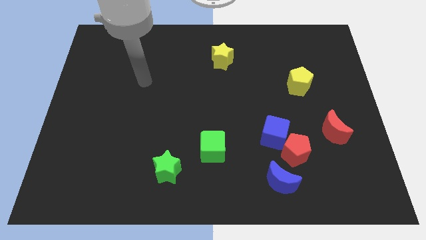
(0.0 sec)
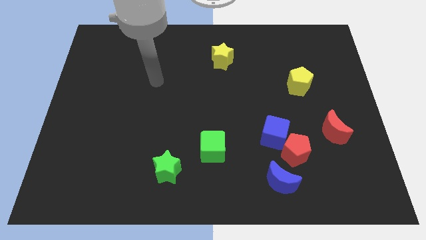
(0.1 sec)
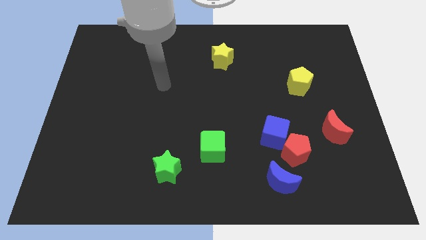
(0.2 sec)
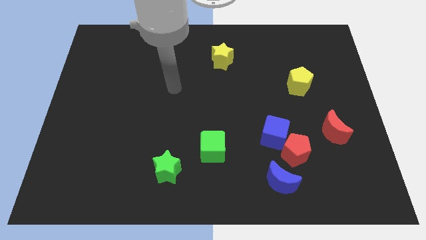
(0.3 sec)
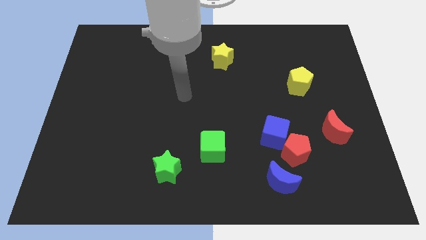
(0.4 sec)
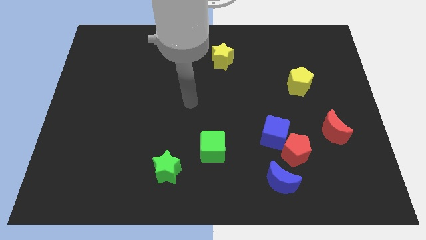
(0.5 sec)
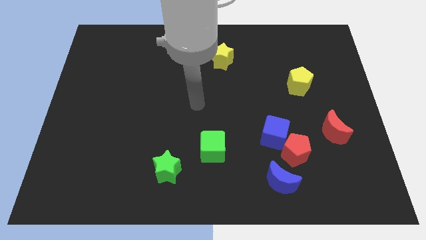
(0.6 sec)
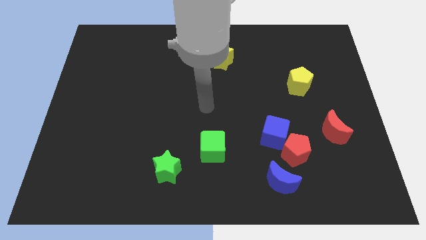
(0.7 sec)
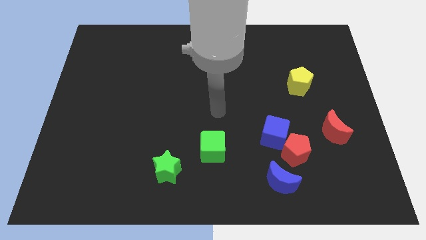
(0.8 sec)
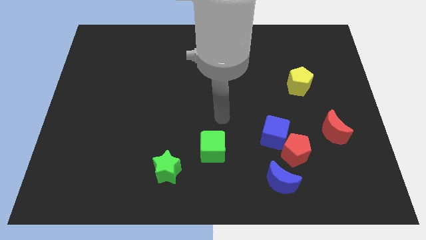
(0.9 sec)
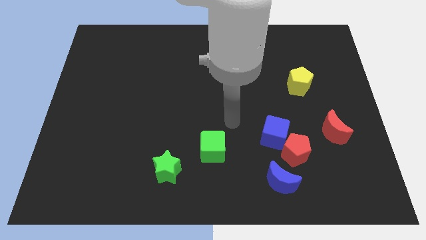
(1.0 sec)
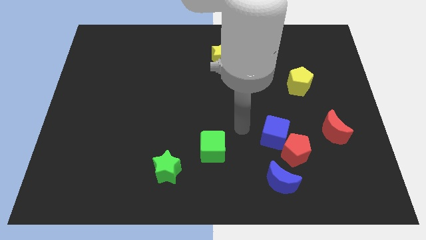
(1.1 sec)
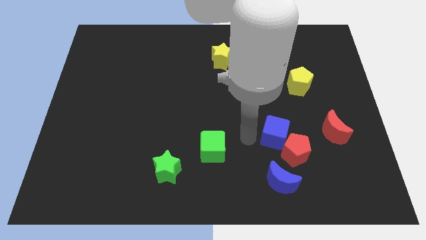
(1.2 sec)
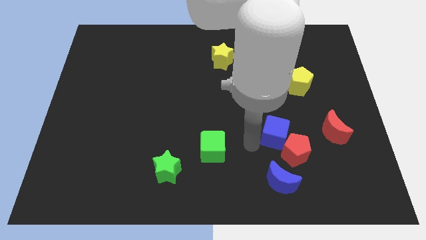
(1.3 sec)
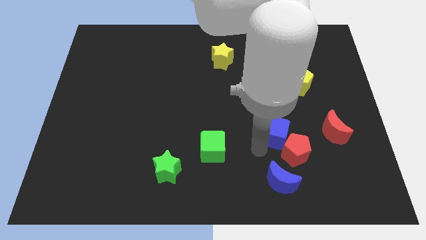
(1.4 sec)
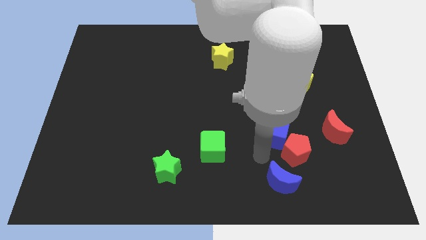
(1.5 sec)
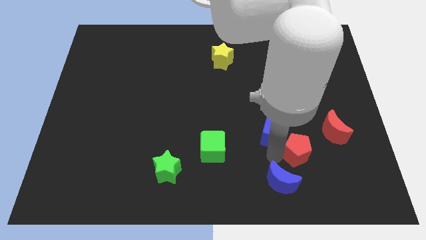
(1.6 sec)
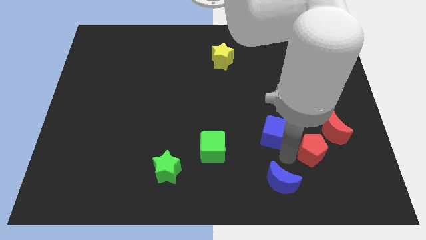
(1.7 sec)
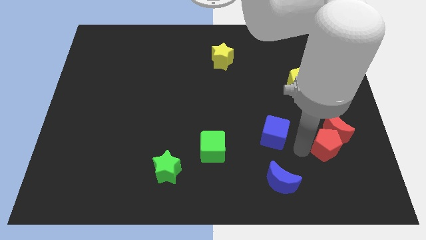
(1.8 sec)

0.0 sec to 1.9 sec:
separate the blue cube from the red pentagon

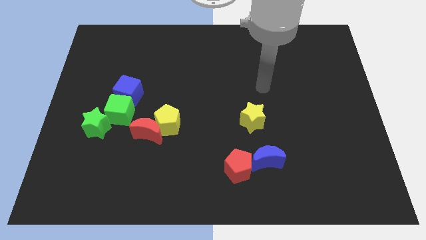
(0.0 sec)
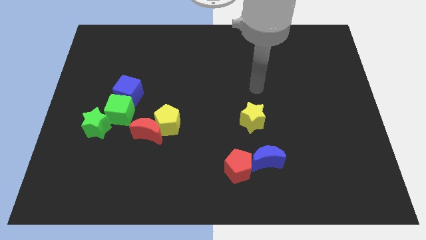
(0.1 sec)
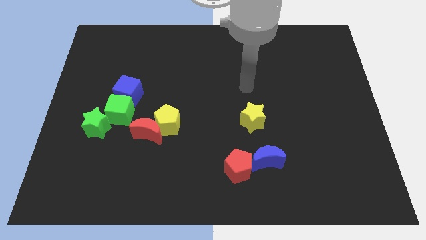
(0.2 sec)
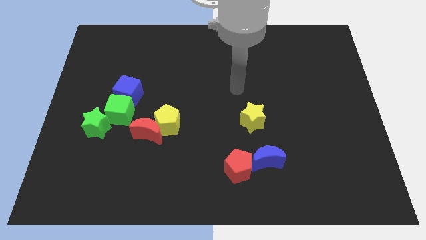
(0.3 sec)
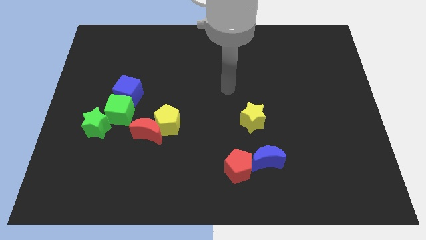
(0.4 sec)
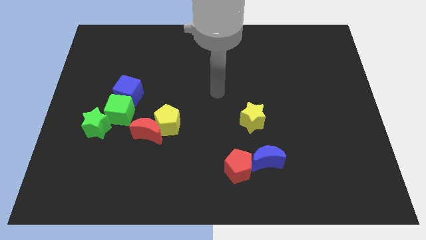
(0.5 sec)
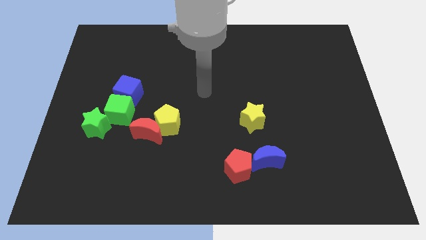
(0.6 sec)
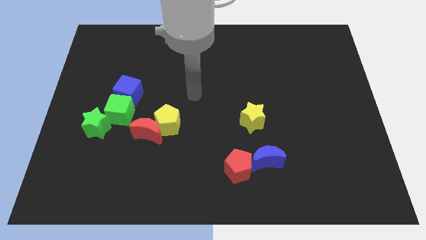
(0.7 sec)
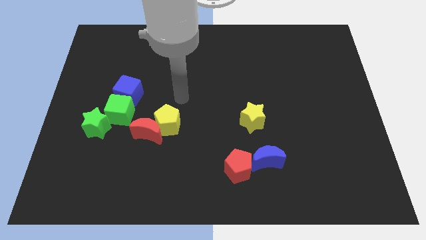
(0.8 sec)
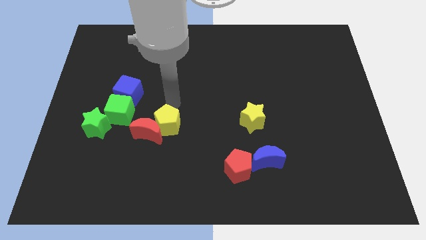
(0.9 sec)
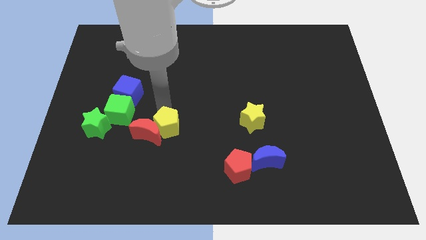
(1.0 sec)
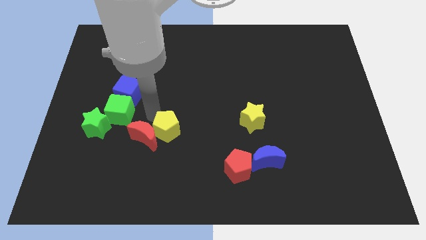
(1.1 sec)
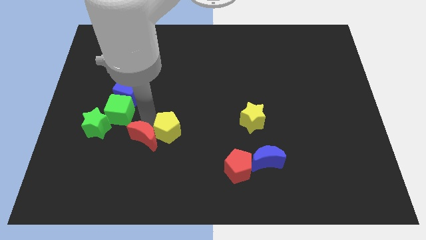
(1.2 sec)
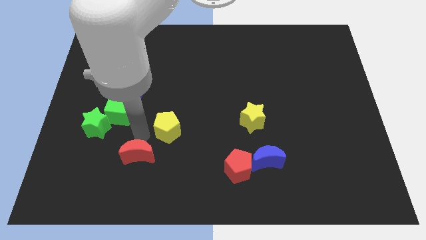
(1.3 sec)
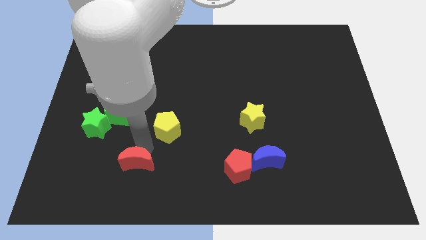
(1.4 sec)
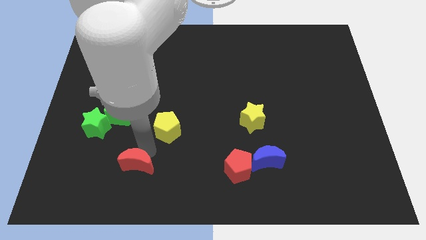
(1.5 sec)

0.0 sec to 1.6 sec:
pull the yellow pentagon apart from the red moon

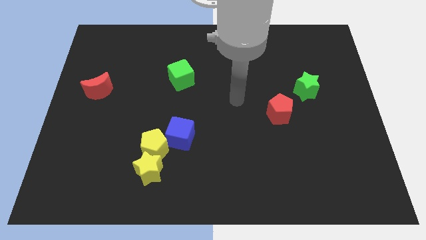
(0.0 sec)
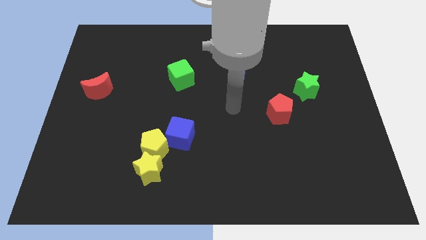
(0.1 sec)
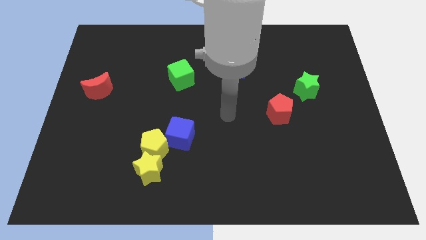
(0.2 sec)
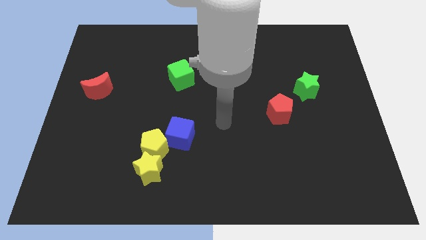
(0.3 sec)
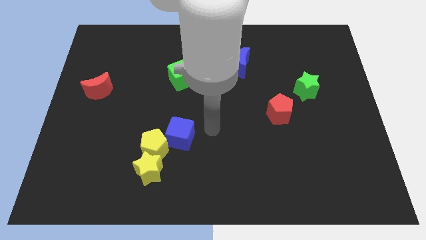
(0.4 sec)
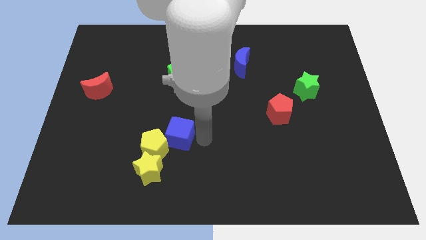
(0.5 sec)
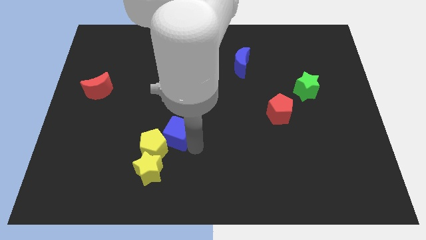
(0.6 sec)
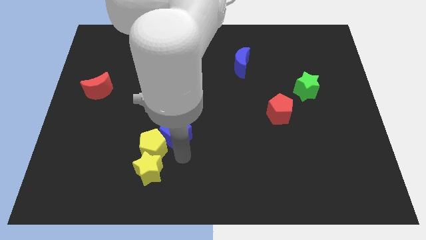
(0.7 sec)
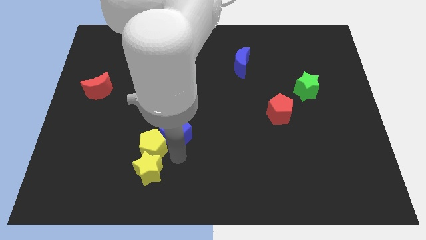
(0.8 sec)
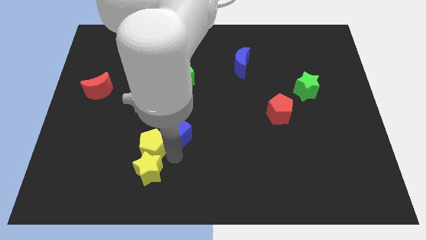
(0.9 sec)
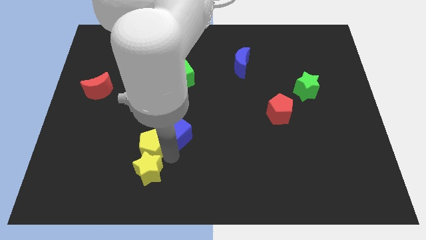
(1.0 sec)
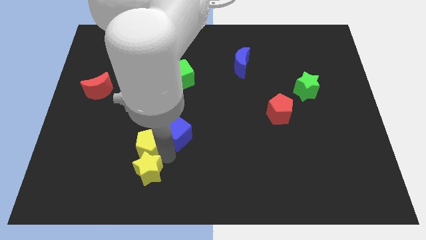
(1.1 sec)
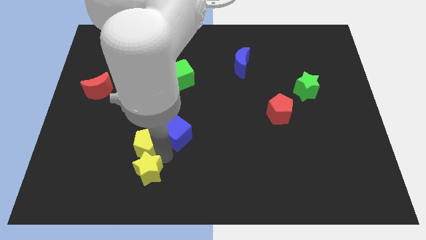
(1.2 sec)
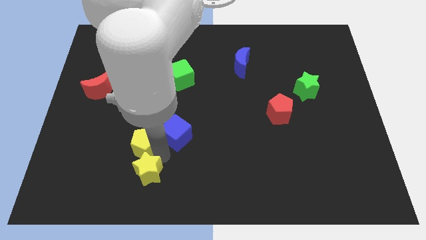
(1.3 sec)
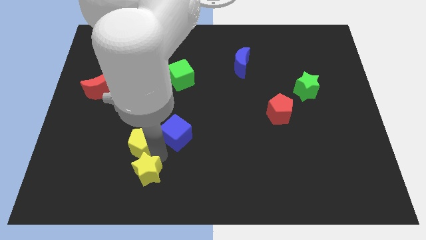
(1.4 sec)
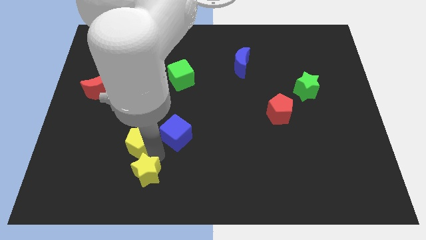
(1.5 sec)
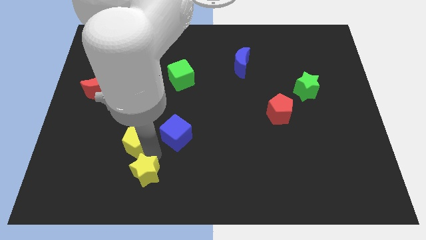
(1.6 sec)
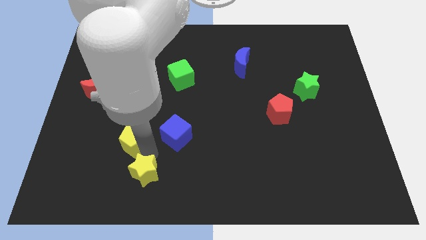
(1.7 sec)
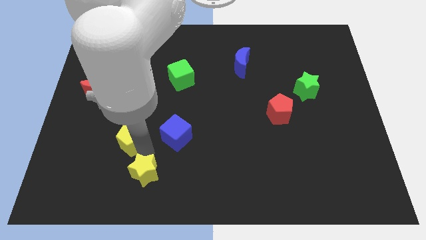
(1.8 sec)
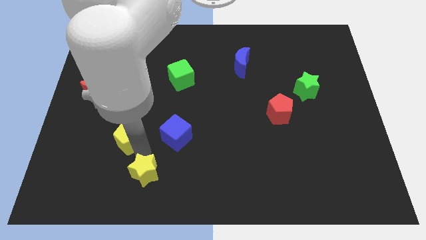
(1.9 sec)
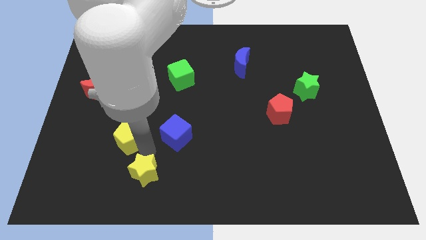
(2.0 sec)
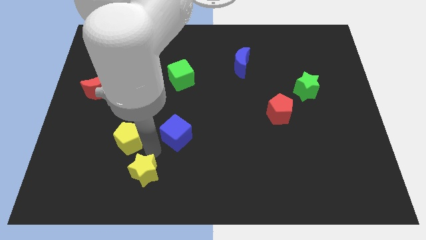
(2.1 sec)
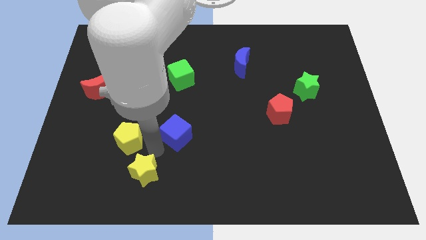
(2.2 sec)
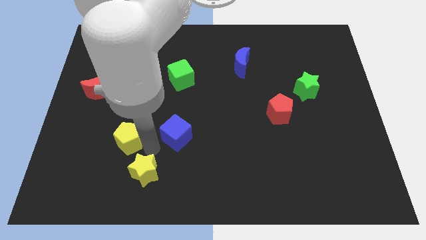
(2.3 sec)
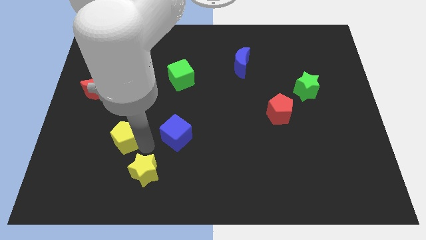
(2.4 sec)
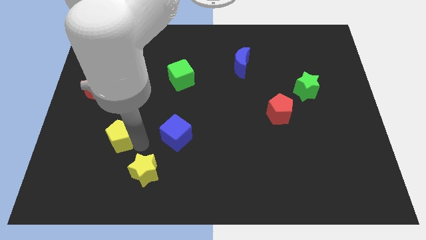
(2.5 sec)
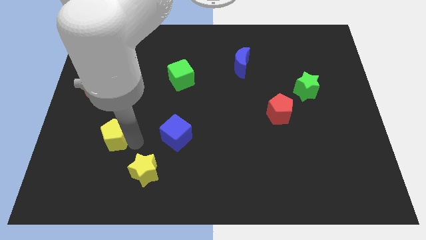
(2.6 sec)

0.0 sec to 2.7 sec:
move the yellow pentagon away from the yellow star and blue cube

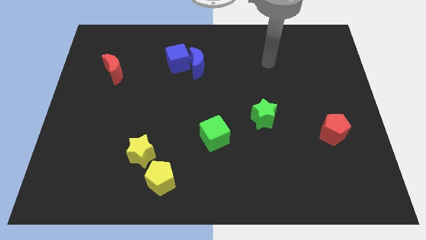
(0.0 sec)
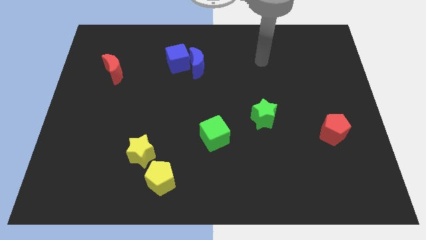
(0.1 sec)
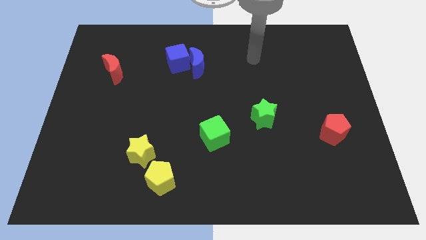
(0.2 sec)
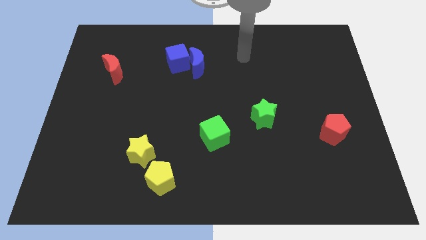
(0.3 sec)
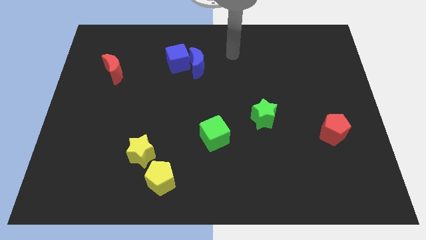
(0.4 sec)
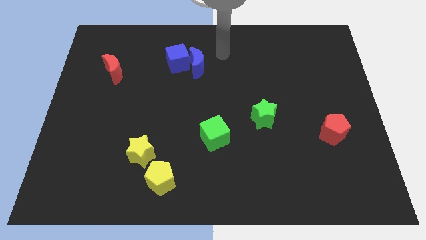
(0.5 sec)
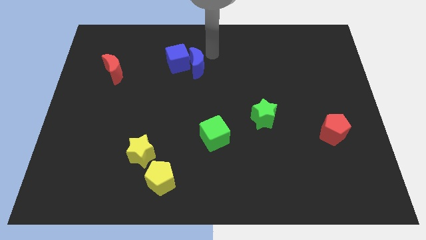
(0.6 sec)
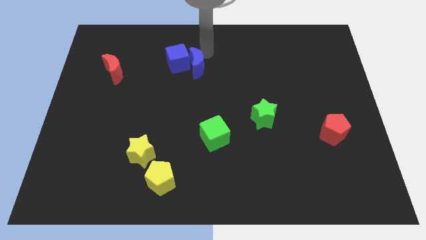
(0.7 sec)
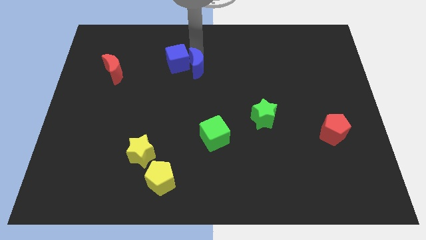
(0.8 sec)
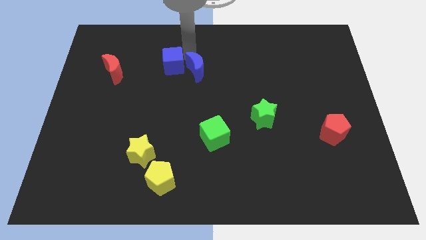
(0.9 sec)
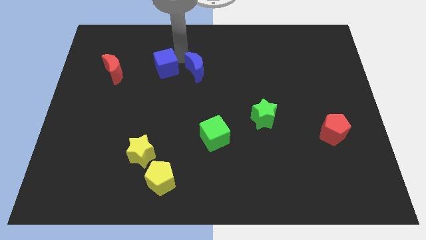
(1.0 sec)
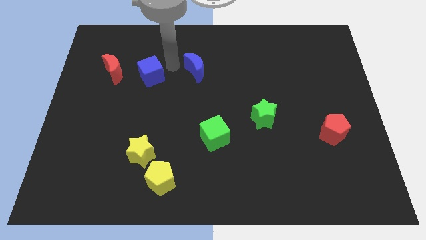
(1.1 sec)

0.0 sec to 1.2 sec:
separate the blue moon from the blue cube

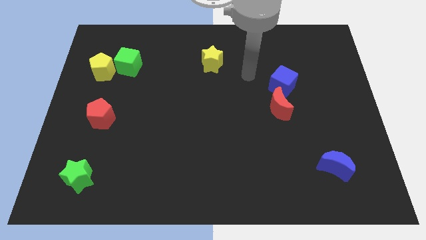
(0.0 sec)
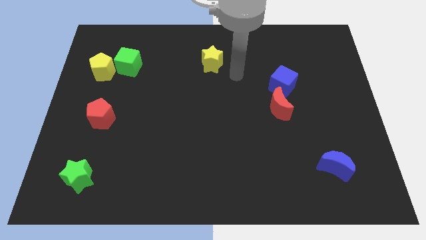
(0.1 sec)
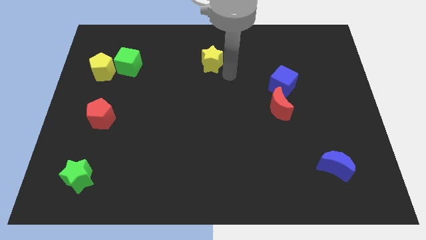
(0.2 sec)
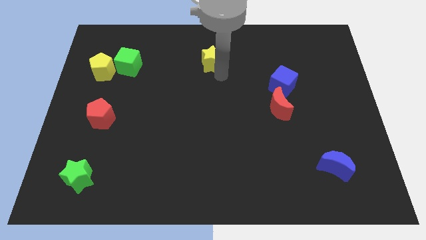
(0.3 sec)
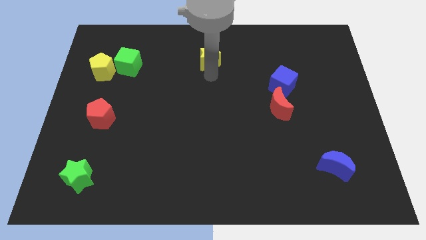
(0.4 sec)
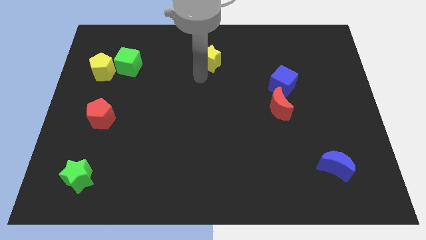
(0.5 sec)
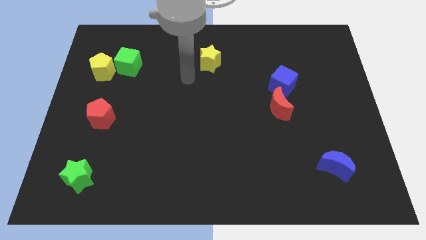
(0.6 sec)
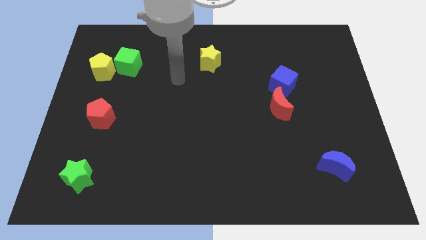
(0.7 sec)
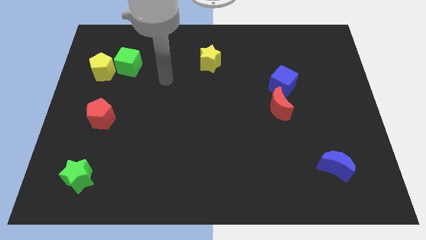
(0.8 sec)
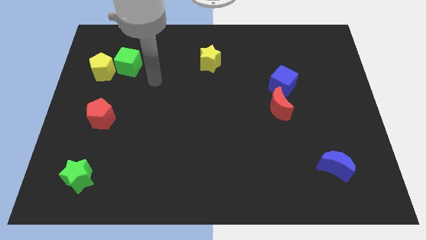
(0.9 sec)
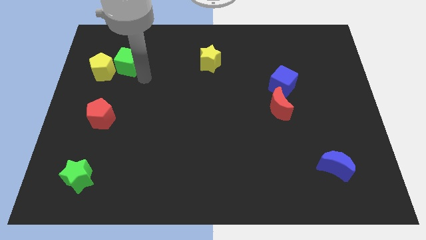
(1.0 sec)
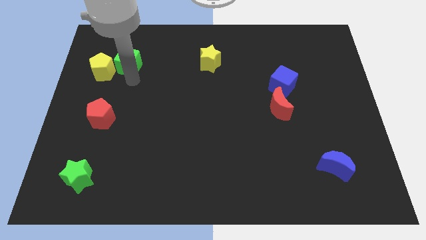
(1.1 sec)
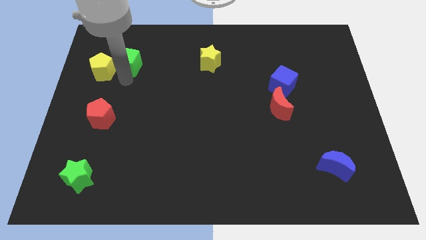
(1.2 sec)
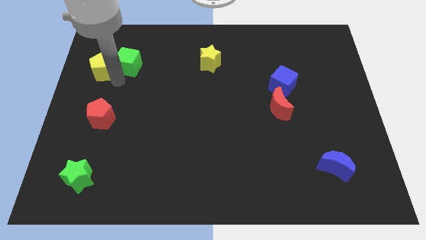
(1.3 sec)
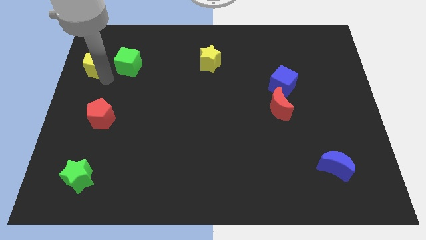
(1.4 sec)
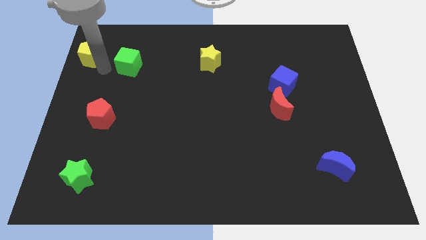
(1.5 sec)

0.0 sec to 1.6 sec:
move the green cube away from the yellow pentagon

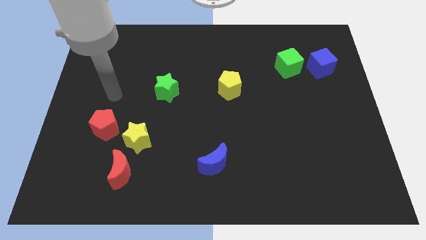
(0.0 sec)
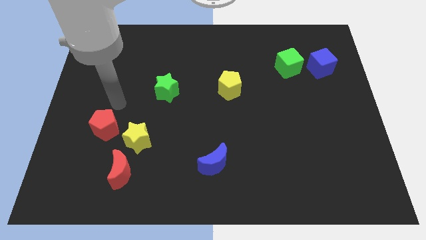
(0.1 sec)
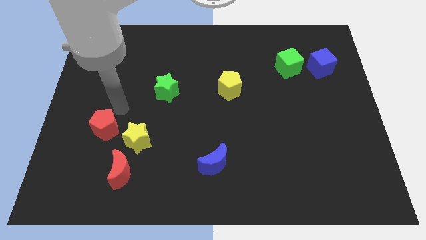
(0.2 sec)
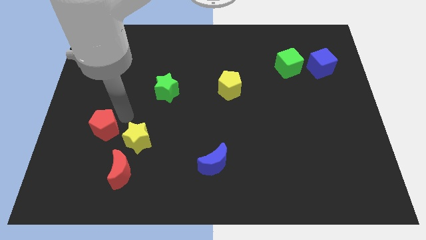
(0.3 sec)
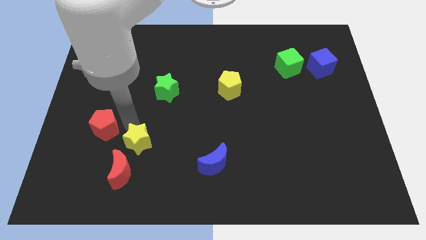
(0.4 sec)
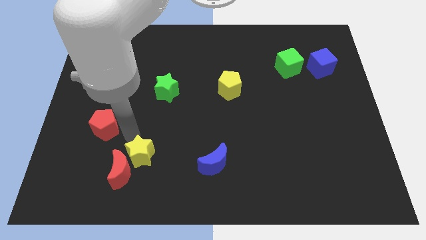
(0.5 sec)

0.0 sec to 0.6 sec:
move the red pentagon away from the yellow star
